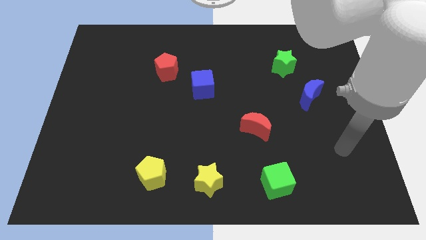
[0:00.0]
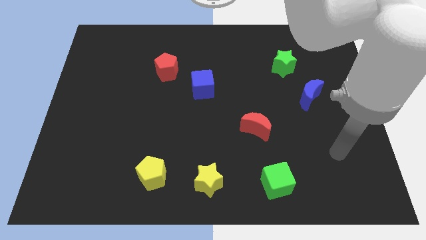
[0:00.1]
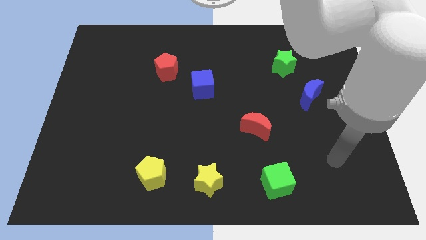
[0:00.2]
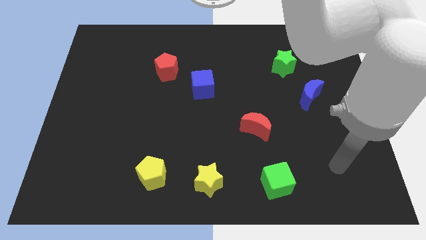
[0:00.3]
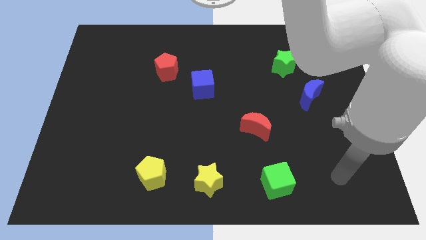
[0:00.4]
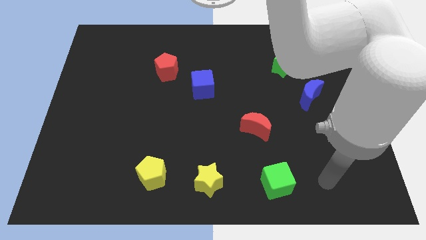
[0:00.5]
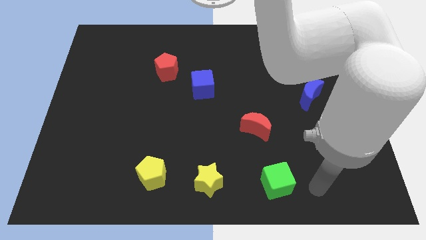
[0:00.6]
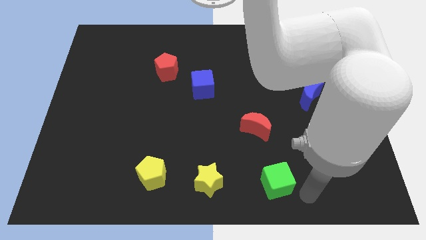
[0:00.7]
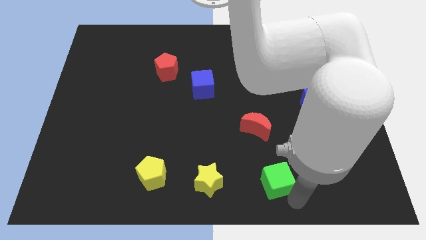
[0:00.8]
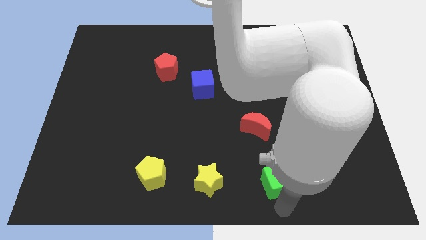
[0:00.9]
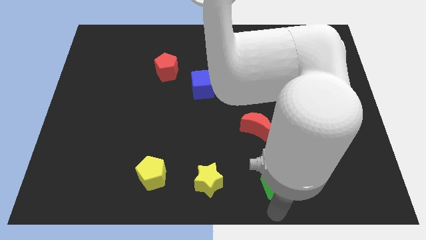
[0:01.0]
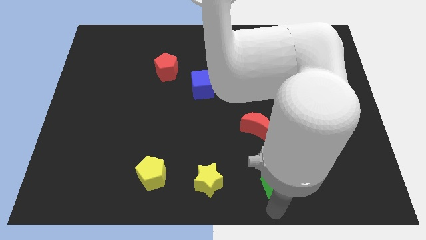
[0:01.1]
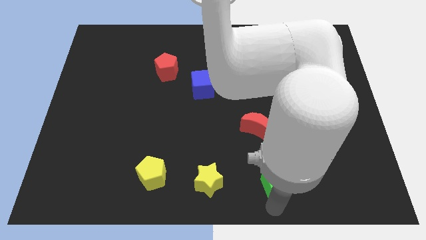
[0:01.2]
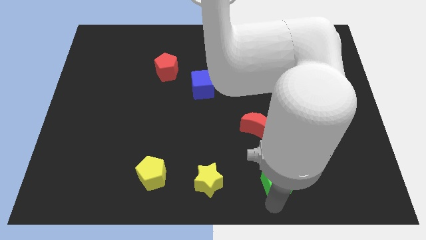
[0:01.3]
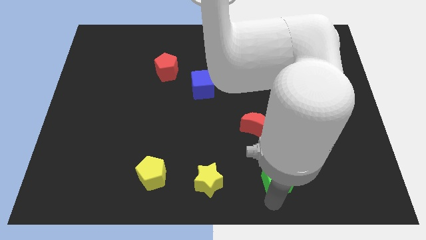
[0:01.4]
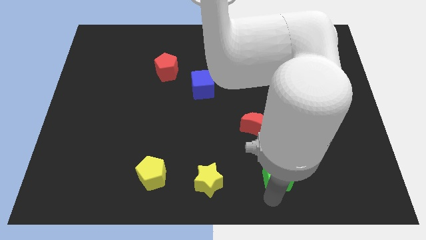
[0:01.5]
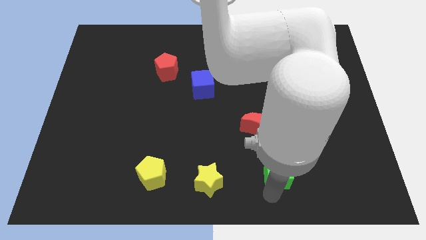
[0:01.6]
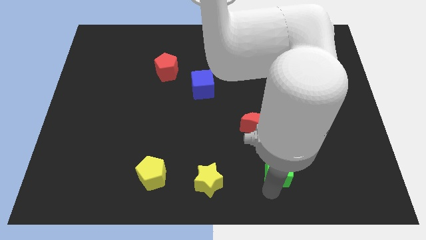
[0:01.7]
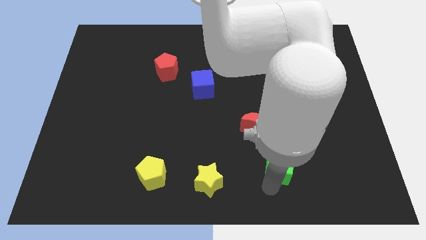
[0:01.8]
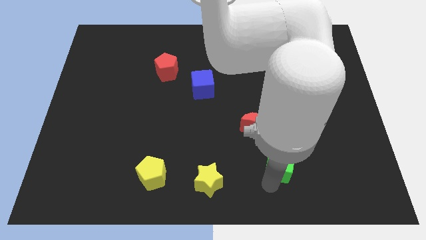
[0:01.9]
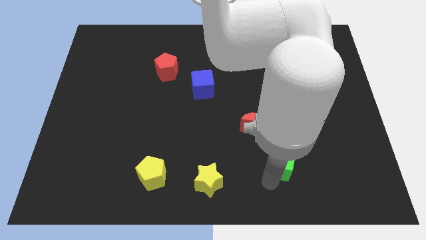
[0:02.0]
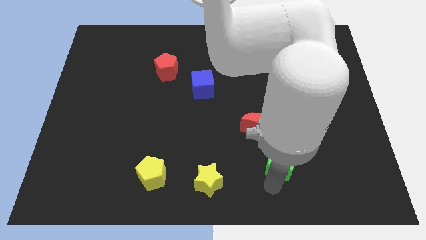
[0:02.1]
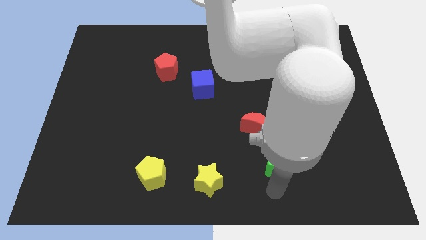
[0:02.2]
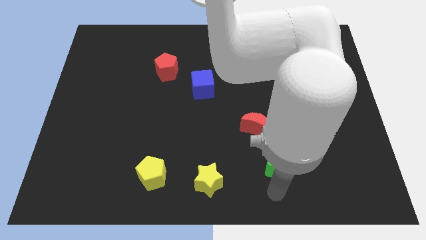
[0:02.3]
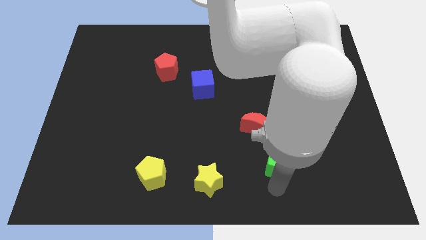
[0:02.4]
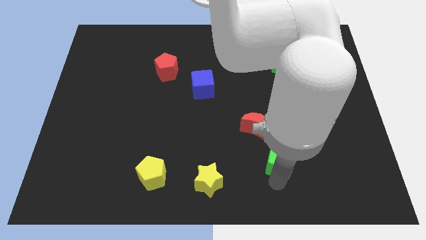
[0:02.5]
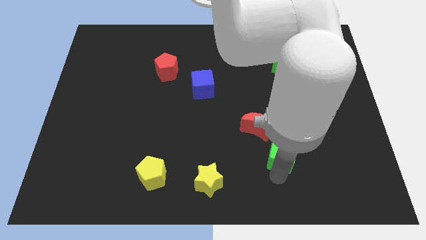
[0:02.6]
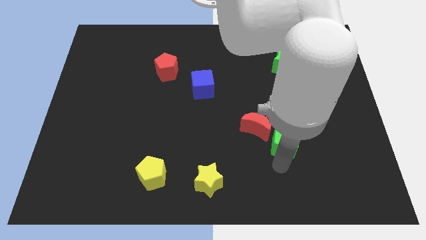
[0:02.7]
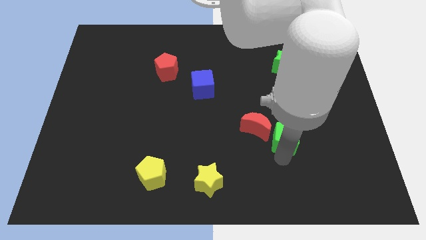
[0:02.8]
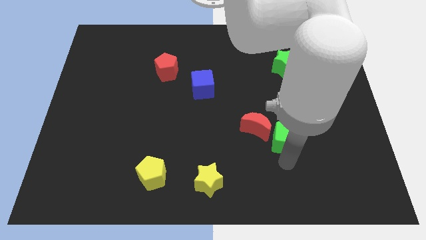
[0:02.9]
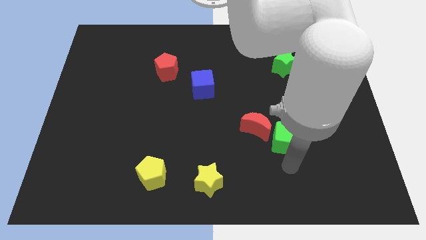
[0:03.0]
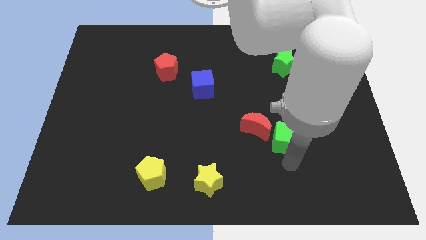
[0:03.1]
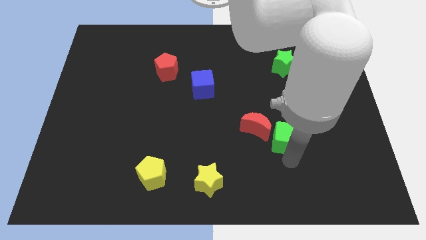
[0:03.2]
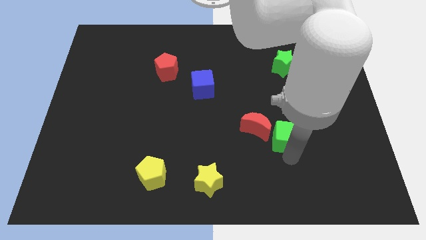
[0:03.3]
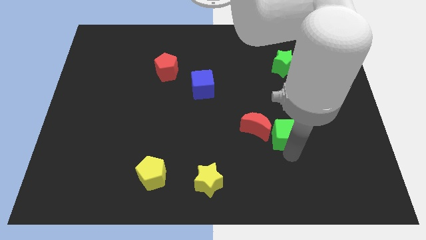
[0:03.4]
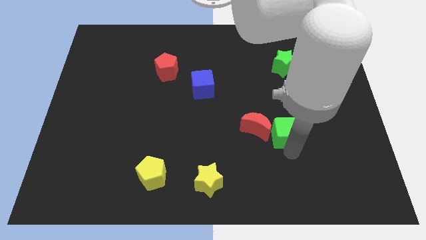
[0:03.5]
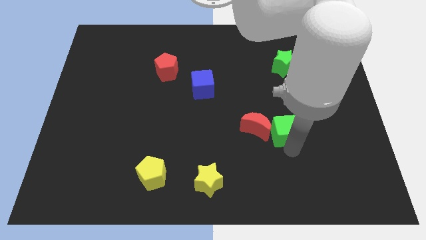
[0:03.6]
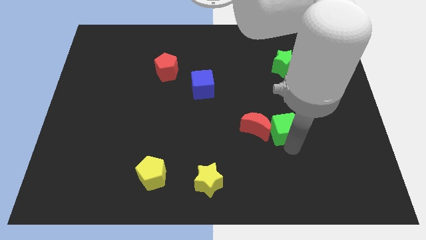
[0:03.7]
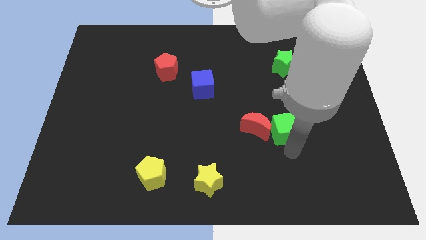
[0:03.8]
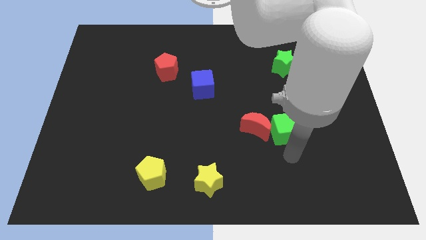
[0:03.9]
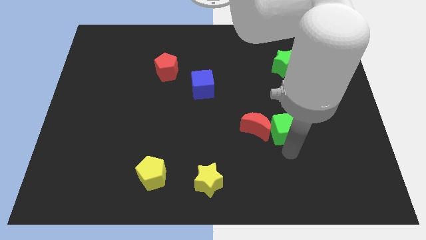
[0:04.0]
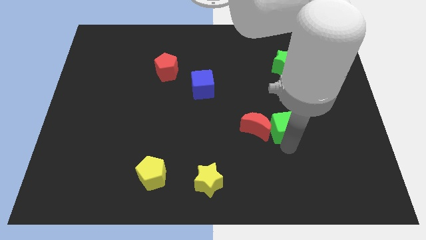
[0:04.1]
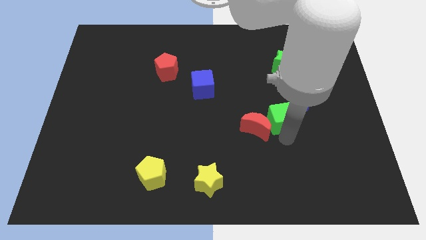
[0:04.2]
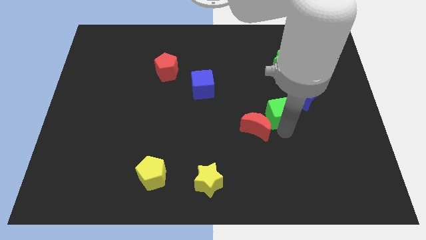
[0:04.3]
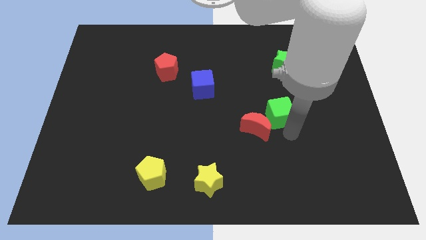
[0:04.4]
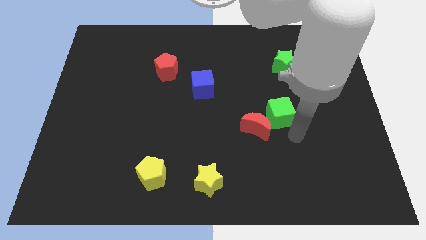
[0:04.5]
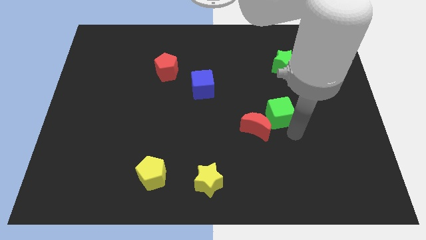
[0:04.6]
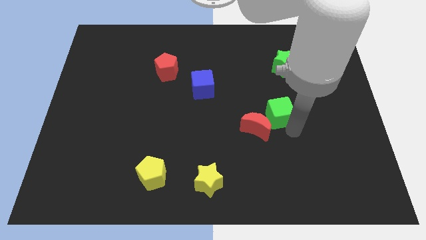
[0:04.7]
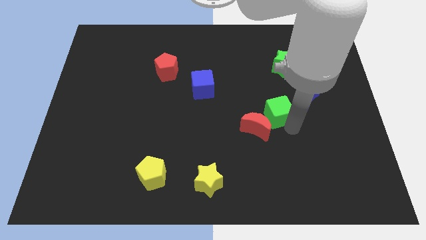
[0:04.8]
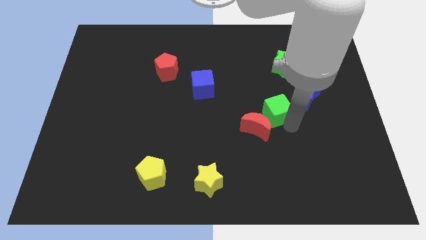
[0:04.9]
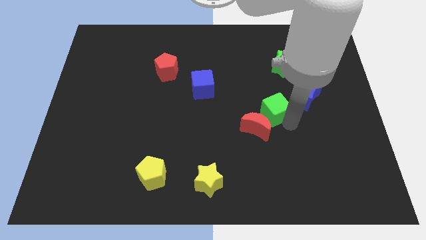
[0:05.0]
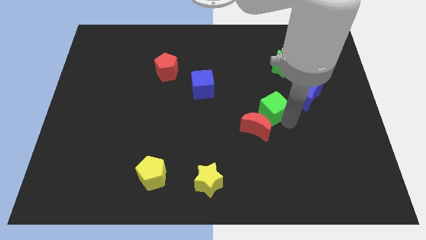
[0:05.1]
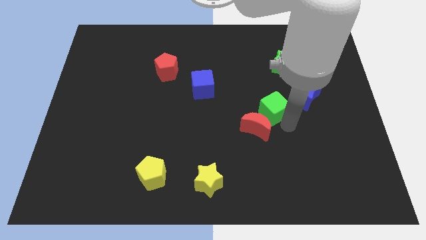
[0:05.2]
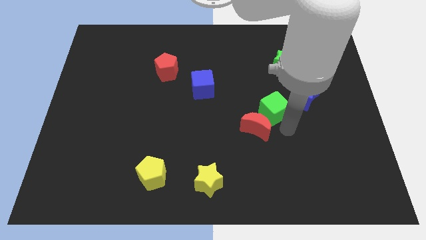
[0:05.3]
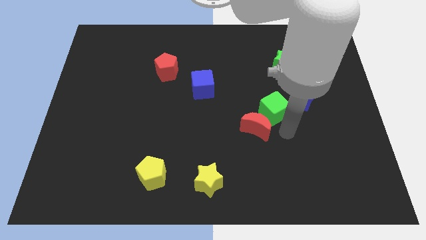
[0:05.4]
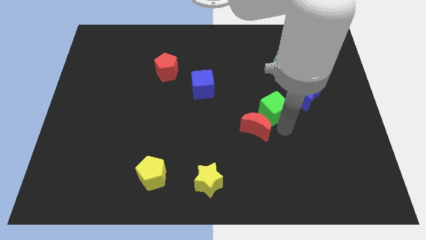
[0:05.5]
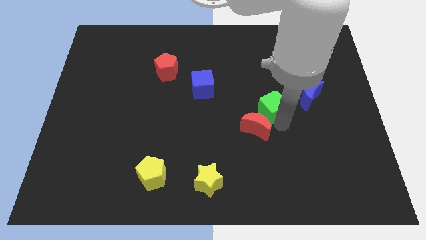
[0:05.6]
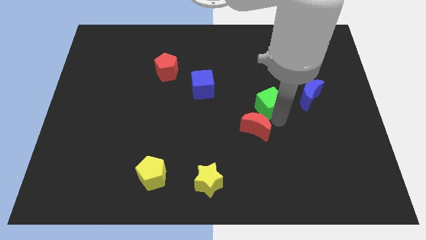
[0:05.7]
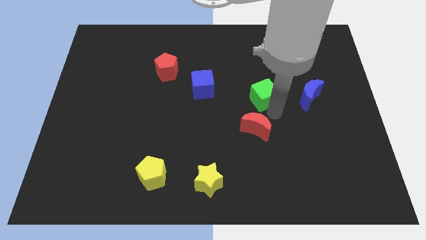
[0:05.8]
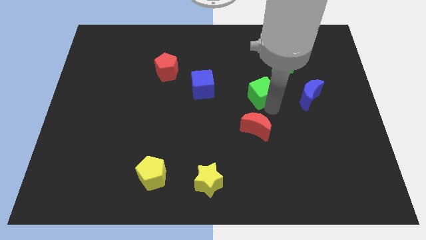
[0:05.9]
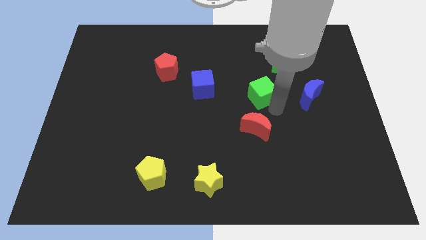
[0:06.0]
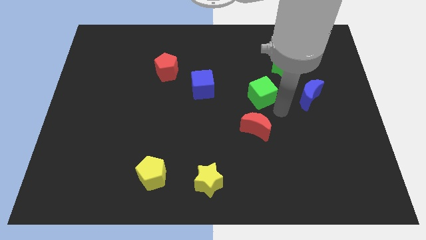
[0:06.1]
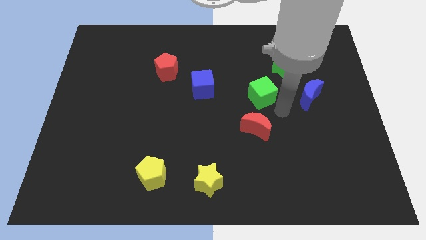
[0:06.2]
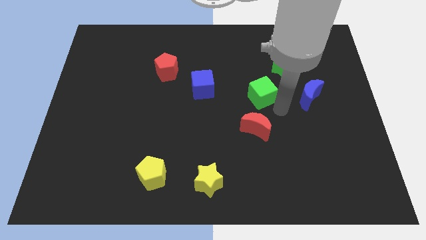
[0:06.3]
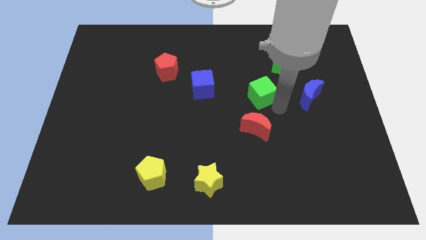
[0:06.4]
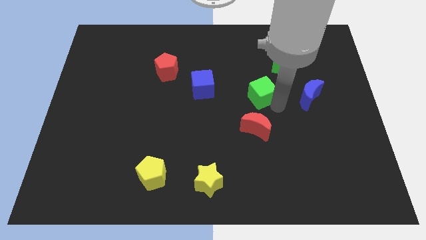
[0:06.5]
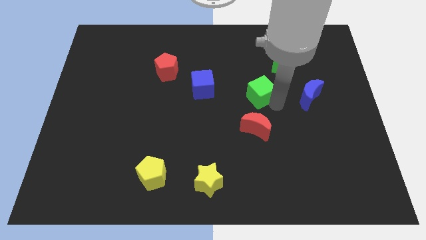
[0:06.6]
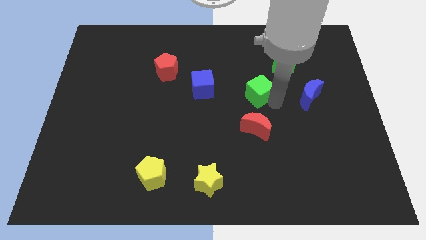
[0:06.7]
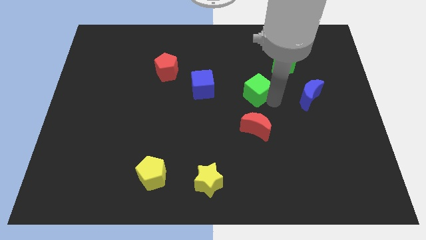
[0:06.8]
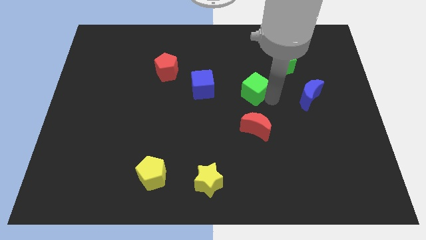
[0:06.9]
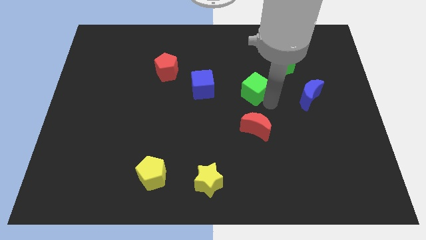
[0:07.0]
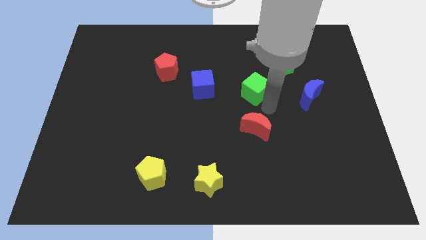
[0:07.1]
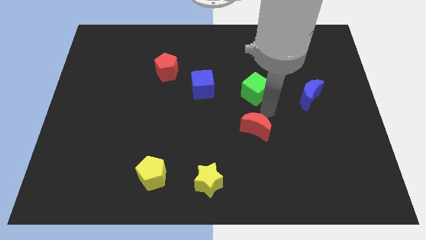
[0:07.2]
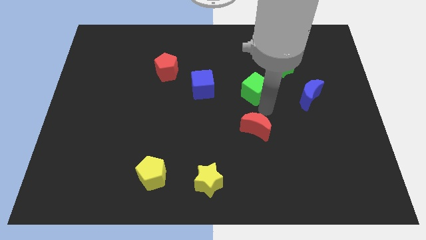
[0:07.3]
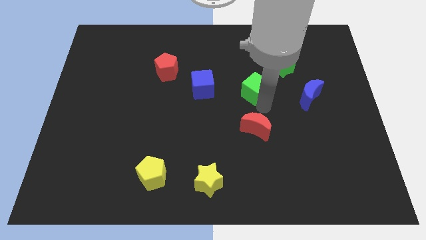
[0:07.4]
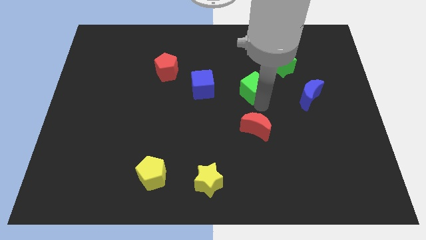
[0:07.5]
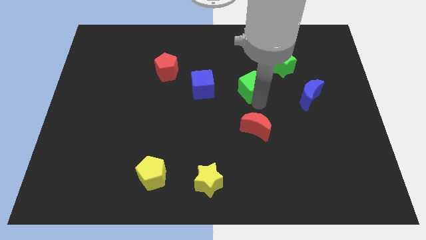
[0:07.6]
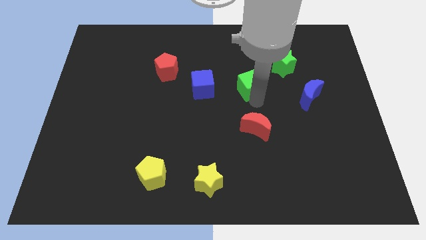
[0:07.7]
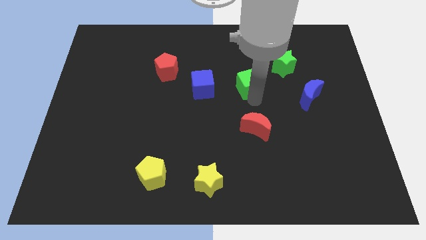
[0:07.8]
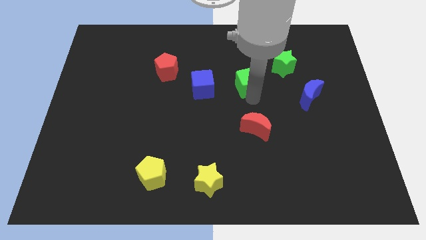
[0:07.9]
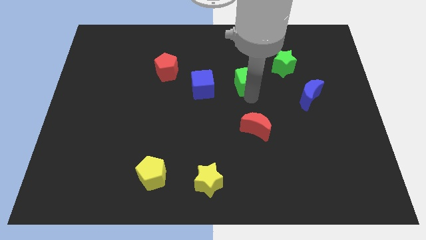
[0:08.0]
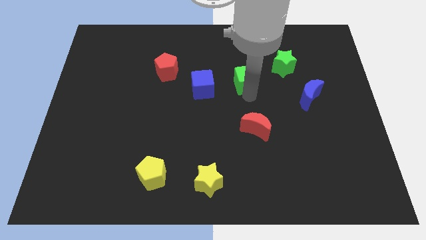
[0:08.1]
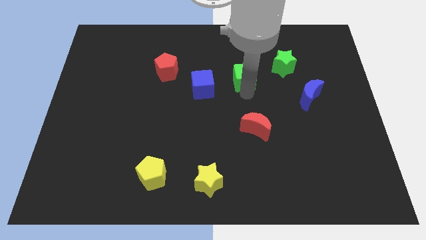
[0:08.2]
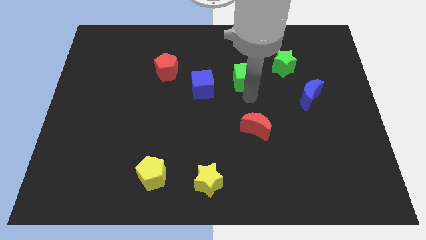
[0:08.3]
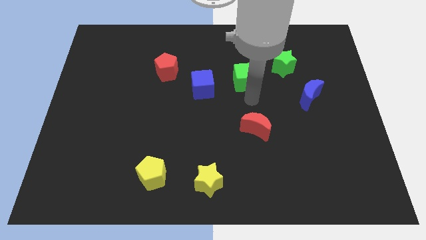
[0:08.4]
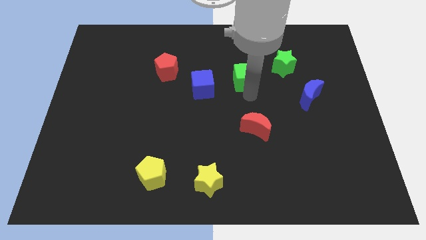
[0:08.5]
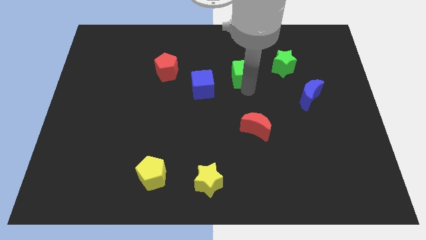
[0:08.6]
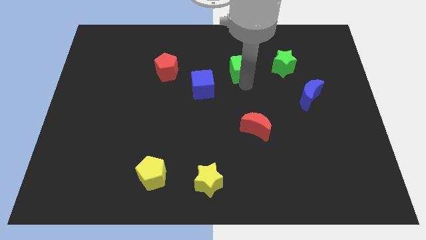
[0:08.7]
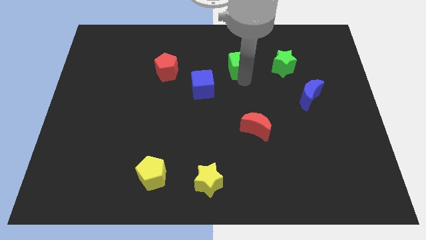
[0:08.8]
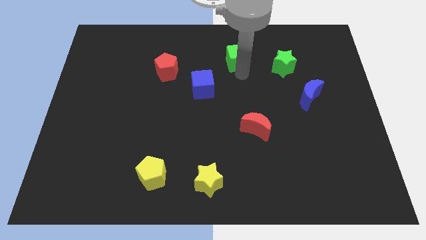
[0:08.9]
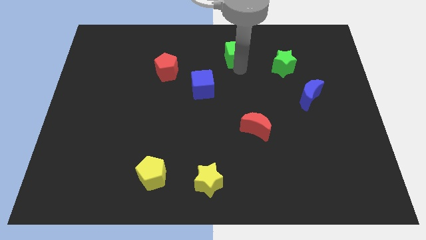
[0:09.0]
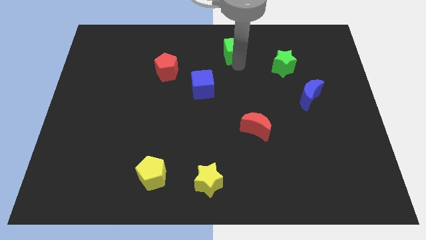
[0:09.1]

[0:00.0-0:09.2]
put the green cube to the top side
